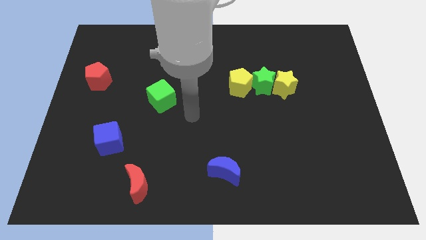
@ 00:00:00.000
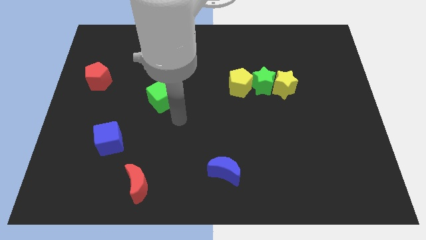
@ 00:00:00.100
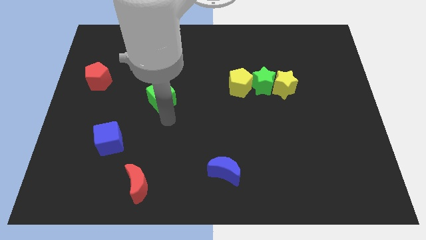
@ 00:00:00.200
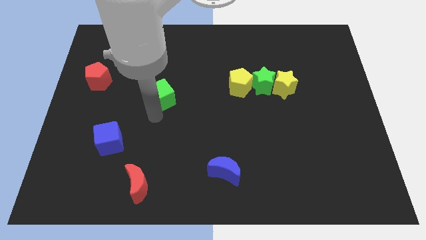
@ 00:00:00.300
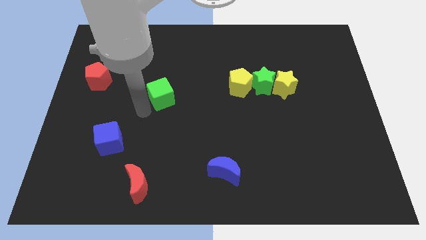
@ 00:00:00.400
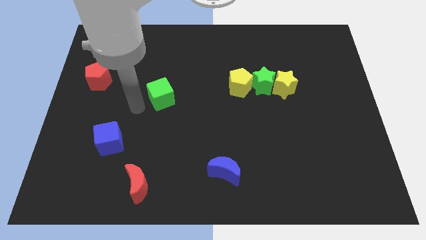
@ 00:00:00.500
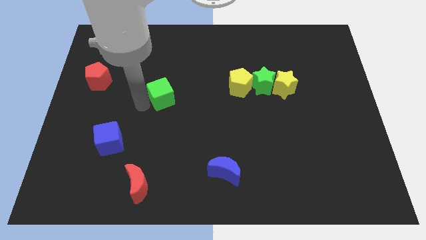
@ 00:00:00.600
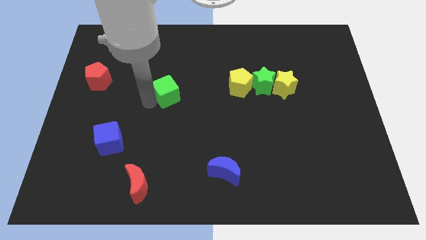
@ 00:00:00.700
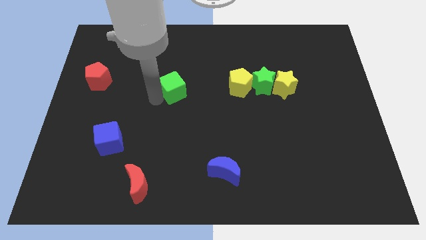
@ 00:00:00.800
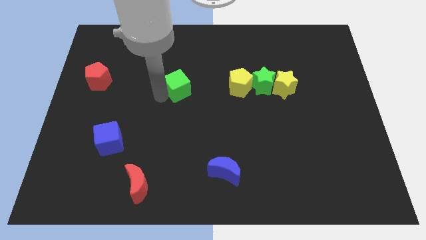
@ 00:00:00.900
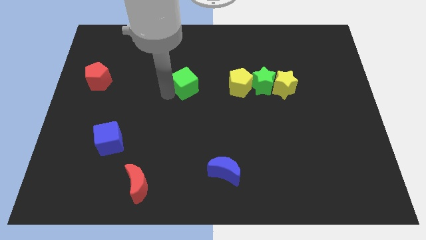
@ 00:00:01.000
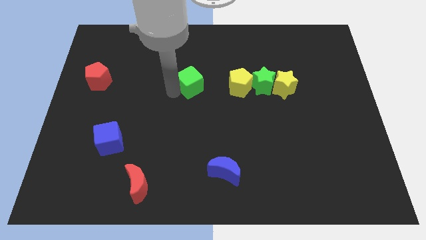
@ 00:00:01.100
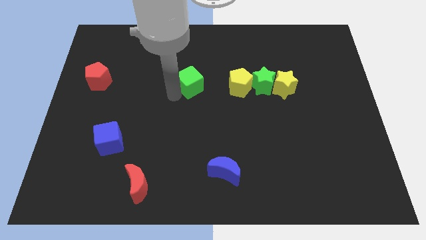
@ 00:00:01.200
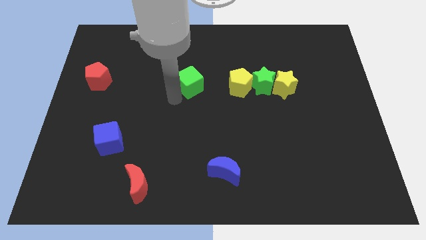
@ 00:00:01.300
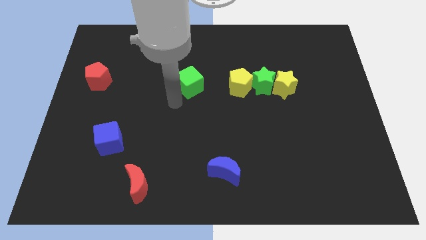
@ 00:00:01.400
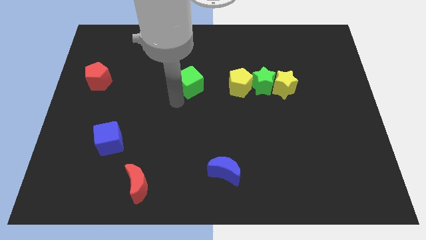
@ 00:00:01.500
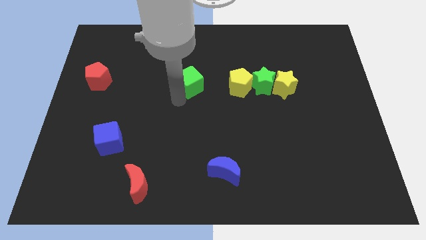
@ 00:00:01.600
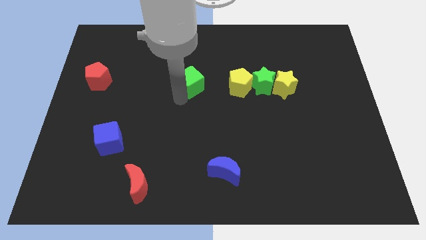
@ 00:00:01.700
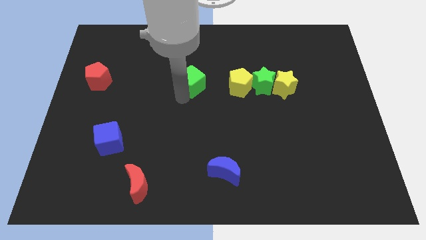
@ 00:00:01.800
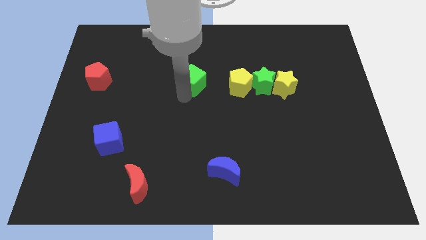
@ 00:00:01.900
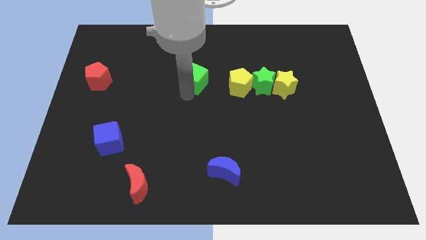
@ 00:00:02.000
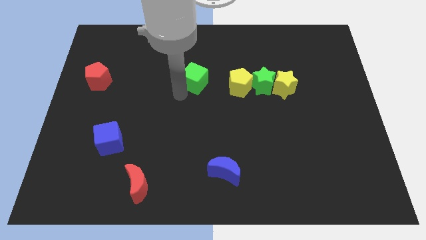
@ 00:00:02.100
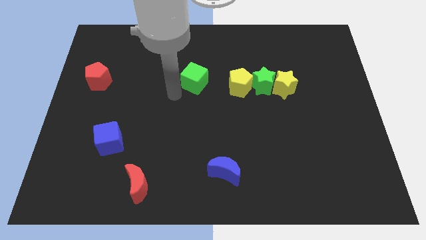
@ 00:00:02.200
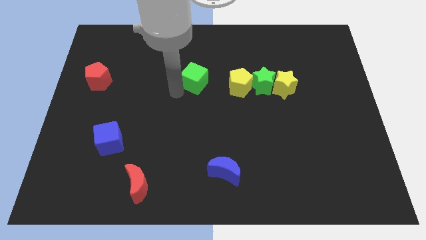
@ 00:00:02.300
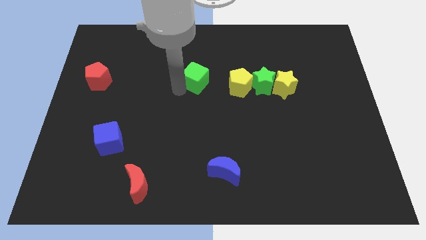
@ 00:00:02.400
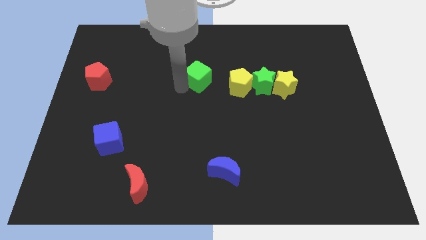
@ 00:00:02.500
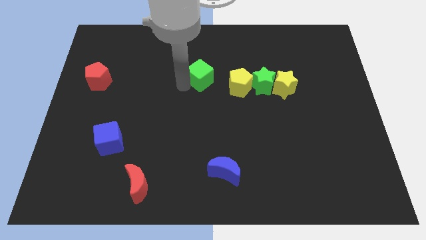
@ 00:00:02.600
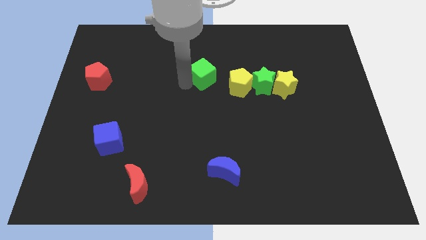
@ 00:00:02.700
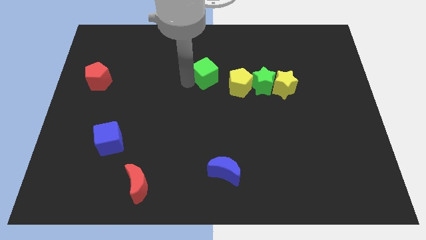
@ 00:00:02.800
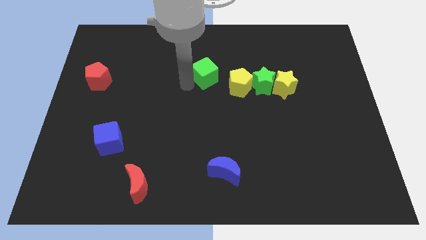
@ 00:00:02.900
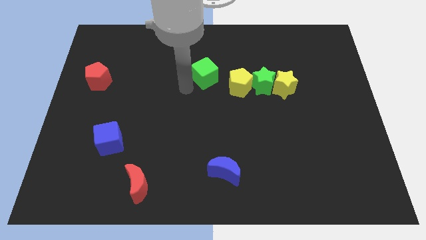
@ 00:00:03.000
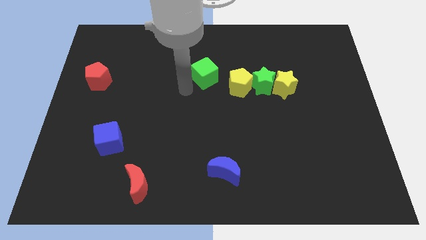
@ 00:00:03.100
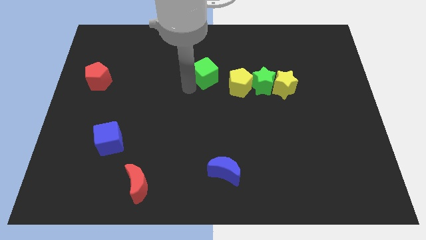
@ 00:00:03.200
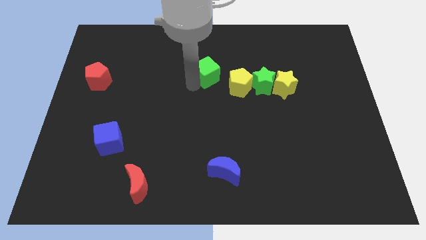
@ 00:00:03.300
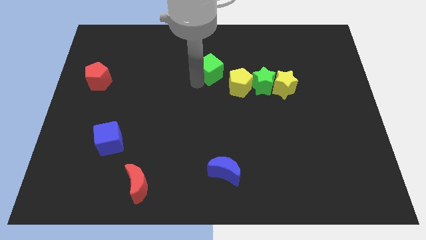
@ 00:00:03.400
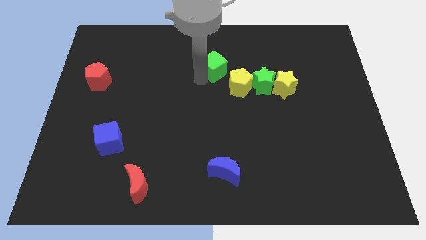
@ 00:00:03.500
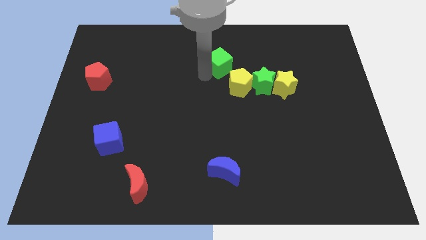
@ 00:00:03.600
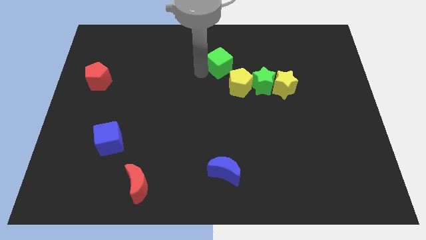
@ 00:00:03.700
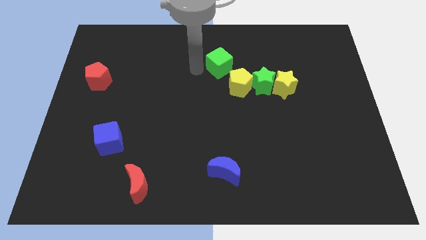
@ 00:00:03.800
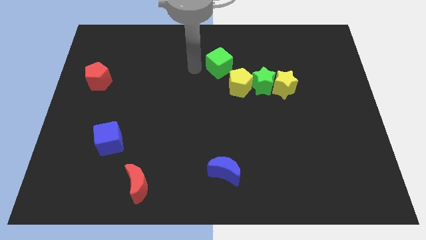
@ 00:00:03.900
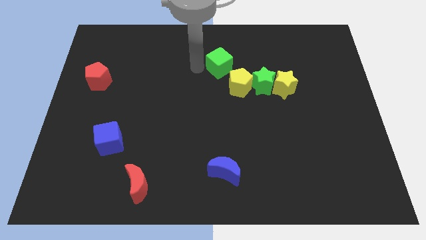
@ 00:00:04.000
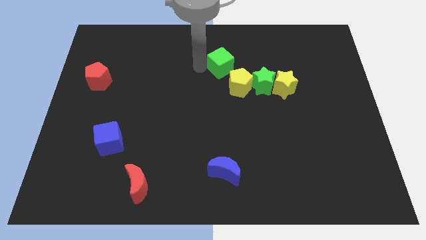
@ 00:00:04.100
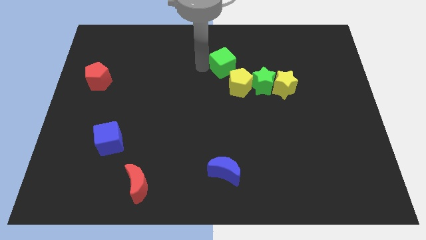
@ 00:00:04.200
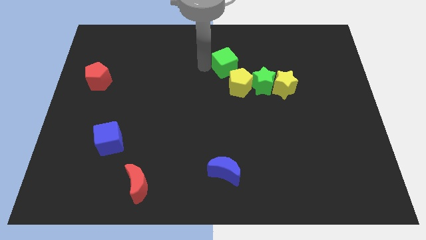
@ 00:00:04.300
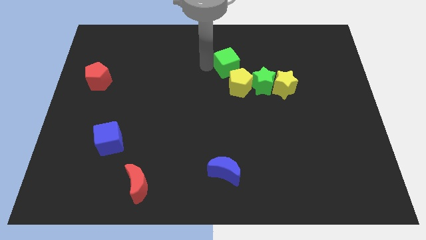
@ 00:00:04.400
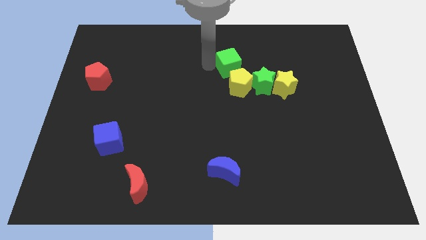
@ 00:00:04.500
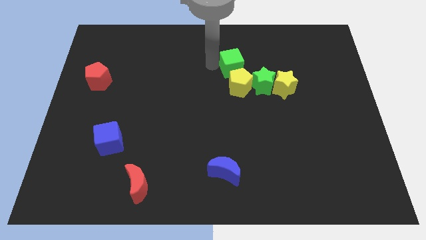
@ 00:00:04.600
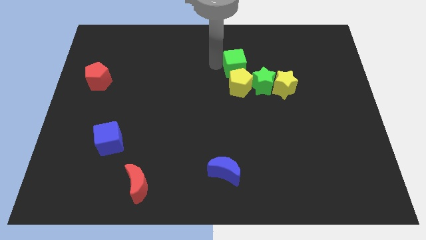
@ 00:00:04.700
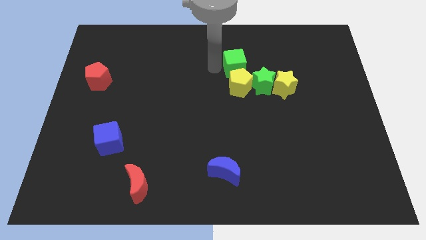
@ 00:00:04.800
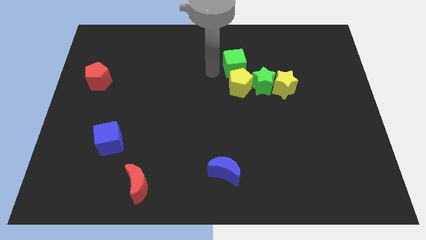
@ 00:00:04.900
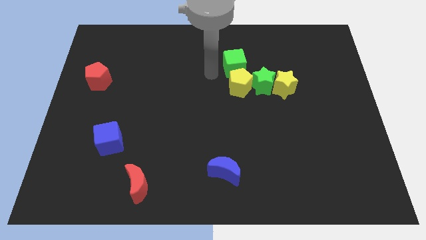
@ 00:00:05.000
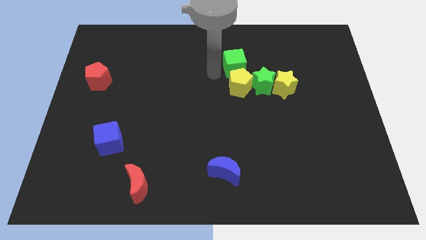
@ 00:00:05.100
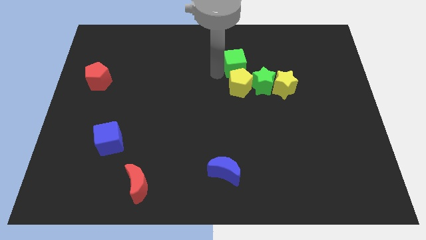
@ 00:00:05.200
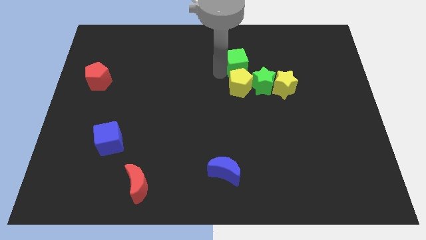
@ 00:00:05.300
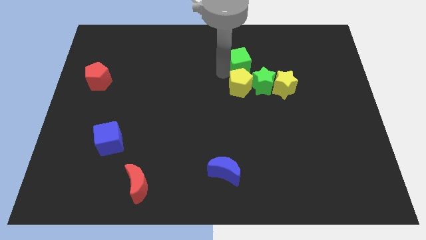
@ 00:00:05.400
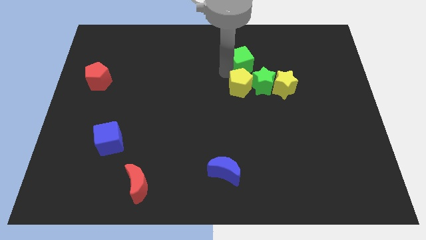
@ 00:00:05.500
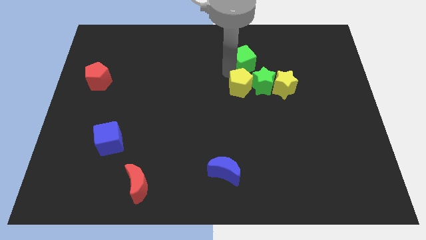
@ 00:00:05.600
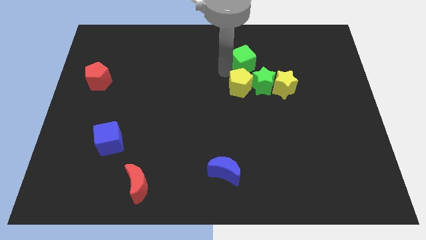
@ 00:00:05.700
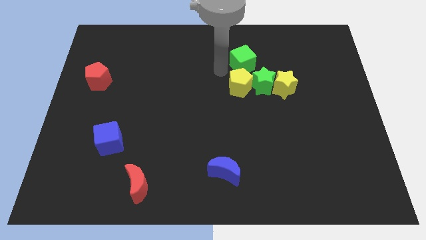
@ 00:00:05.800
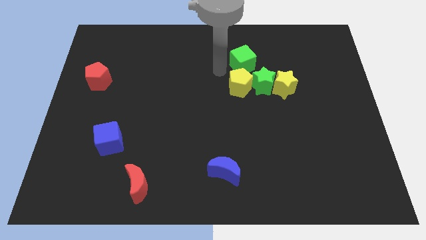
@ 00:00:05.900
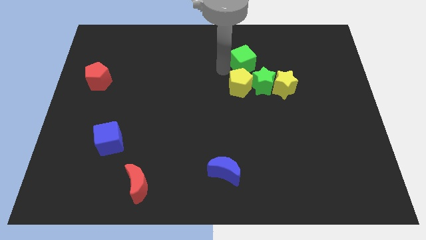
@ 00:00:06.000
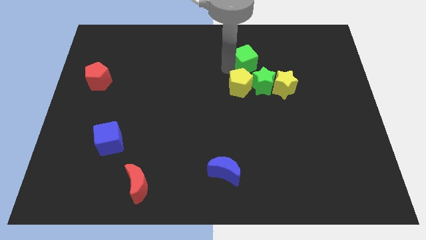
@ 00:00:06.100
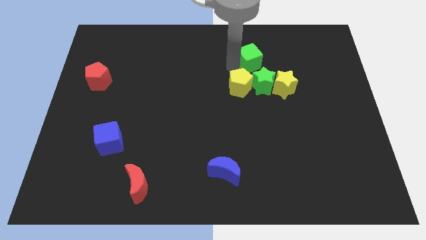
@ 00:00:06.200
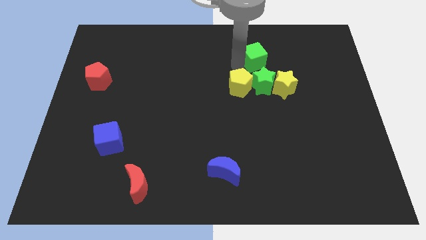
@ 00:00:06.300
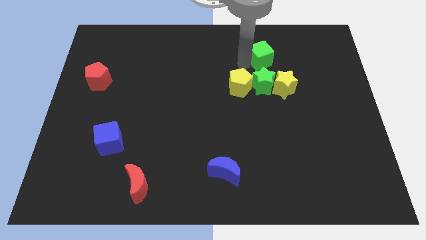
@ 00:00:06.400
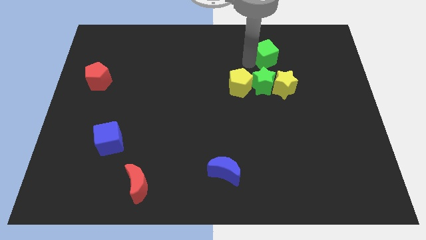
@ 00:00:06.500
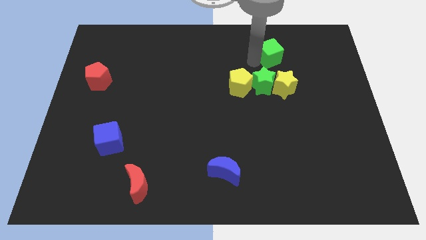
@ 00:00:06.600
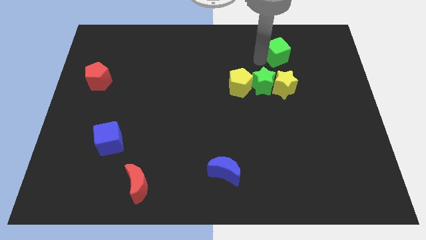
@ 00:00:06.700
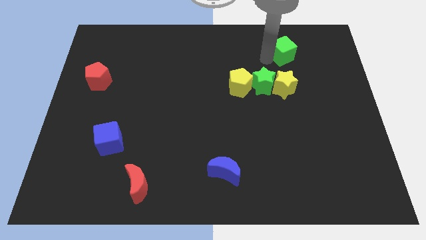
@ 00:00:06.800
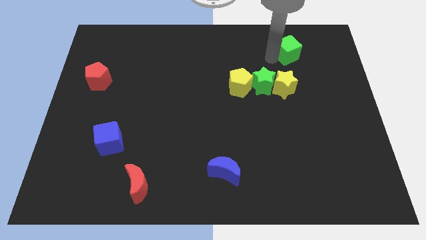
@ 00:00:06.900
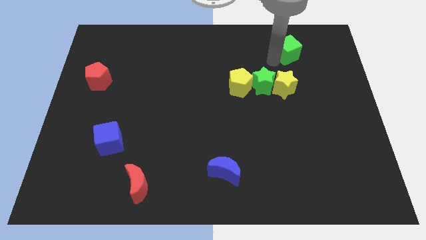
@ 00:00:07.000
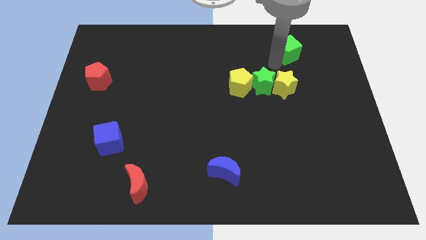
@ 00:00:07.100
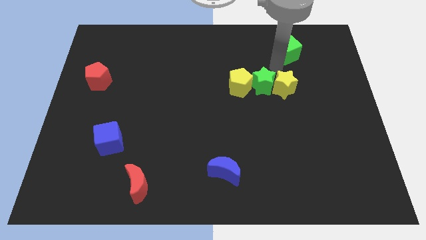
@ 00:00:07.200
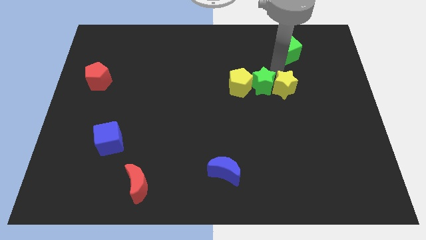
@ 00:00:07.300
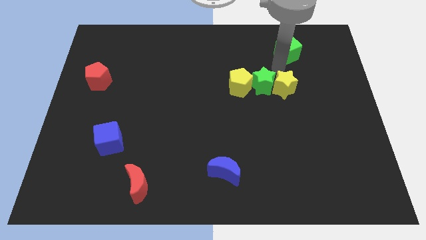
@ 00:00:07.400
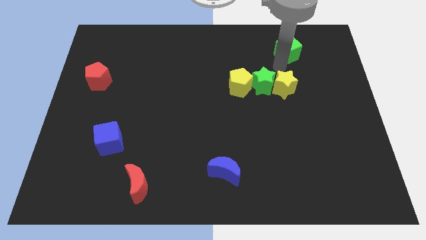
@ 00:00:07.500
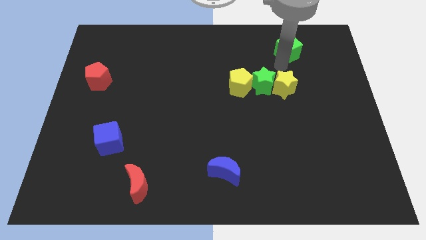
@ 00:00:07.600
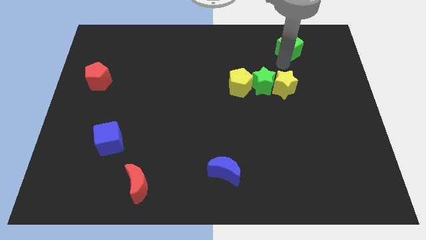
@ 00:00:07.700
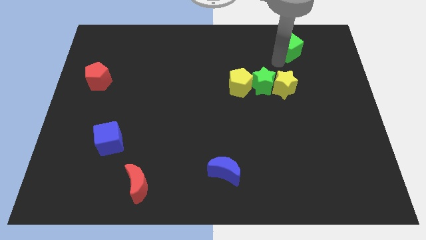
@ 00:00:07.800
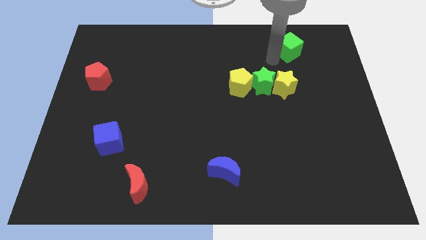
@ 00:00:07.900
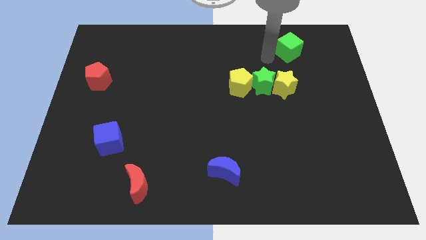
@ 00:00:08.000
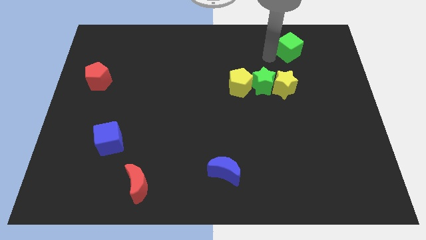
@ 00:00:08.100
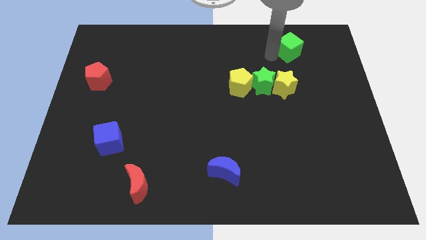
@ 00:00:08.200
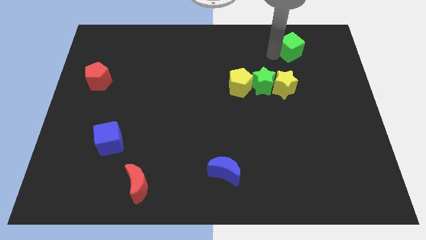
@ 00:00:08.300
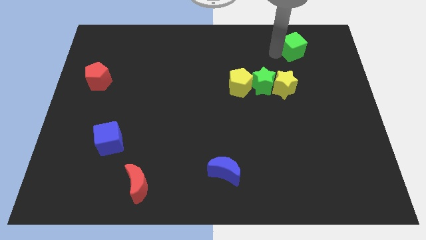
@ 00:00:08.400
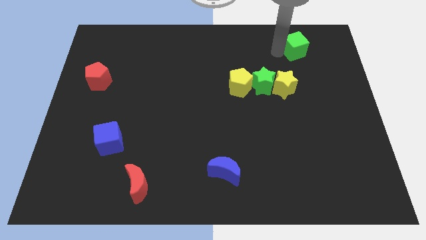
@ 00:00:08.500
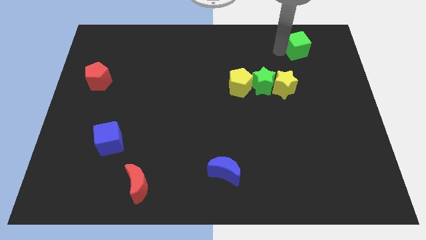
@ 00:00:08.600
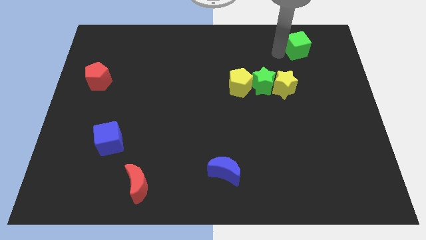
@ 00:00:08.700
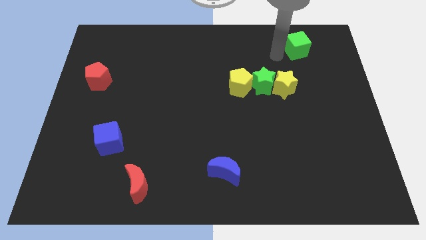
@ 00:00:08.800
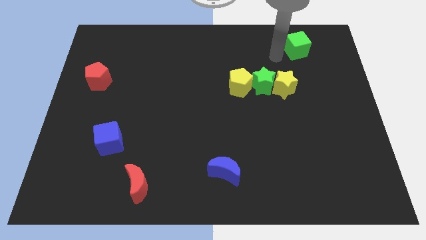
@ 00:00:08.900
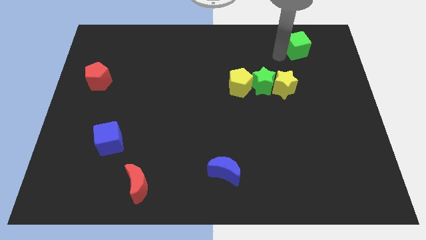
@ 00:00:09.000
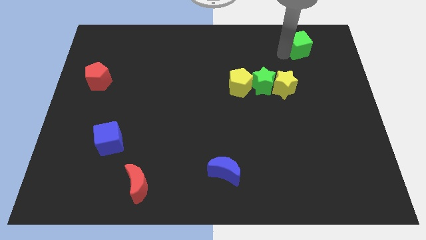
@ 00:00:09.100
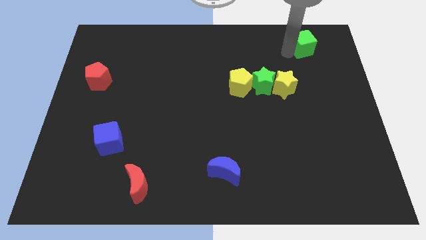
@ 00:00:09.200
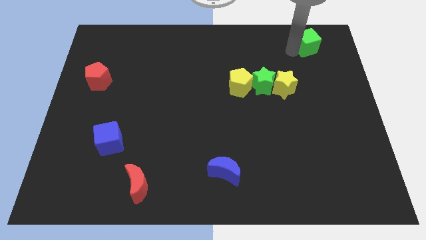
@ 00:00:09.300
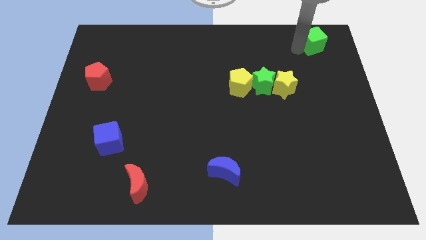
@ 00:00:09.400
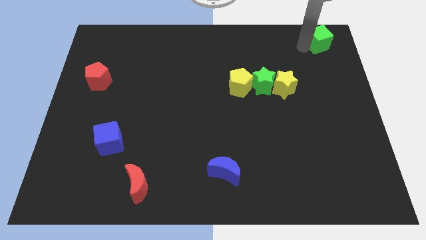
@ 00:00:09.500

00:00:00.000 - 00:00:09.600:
put the green cube to the top right corner
